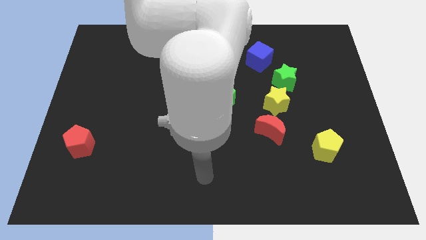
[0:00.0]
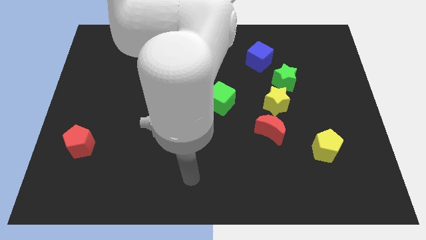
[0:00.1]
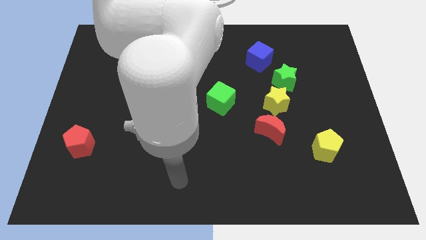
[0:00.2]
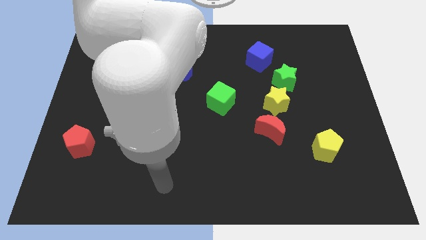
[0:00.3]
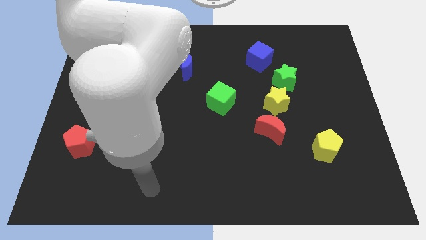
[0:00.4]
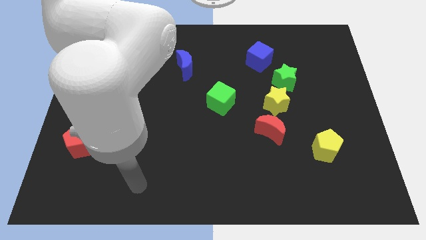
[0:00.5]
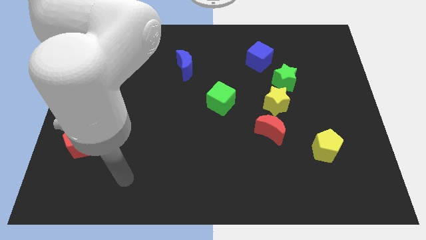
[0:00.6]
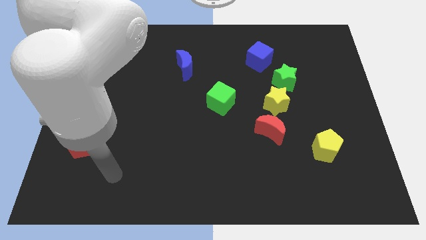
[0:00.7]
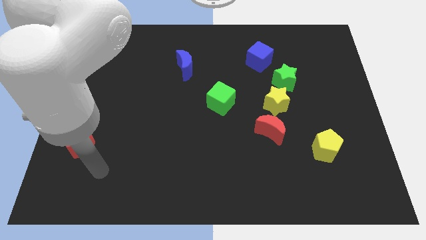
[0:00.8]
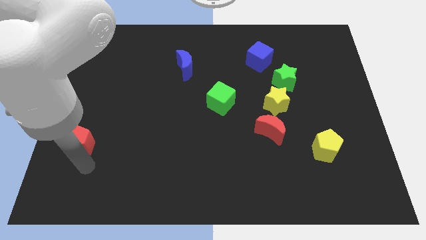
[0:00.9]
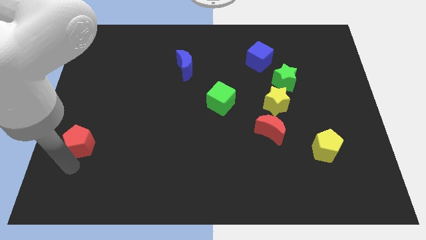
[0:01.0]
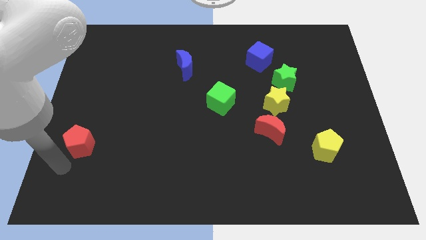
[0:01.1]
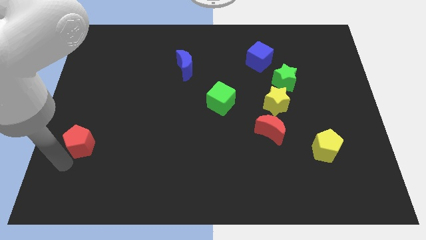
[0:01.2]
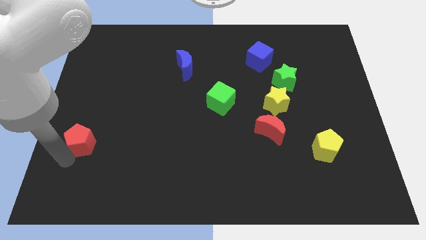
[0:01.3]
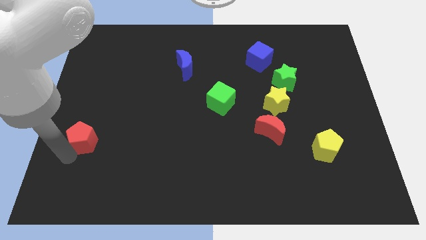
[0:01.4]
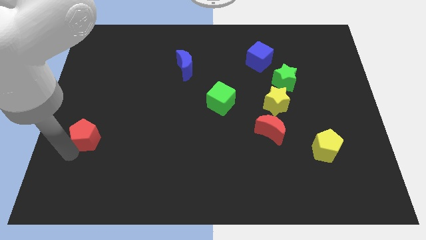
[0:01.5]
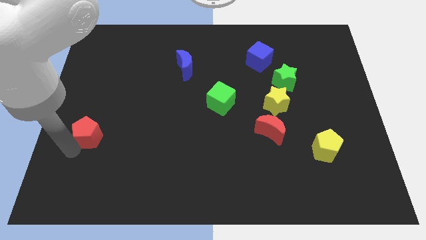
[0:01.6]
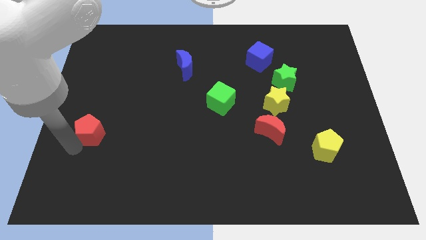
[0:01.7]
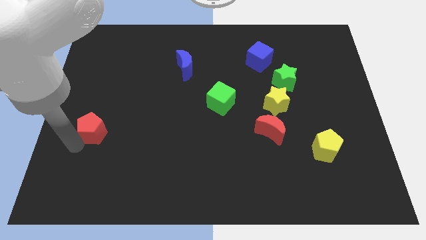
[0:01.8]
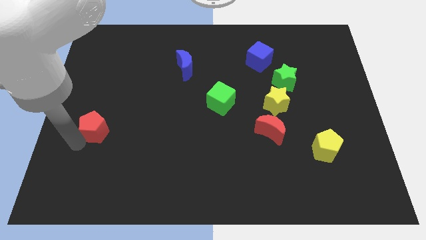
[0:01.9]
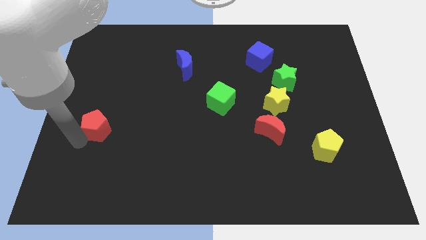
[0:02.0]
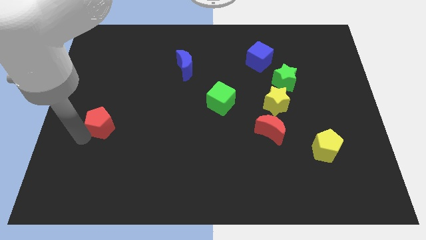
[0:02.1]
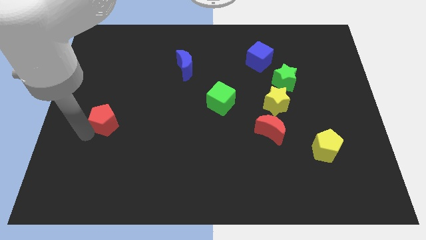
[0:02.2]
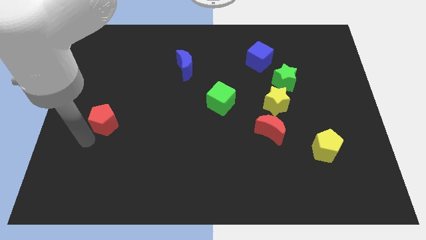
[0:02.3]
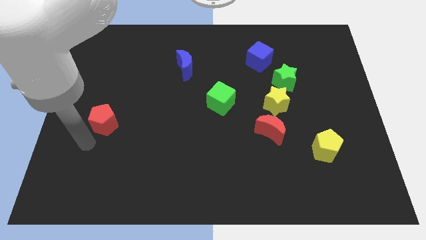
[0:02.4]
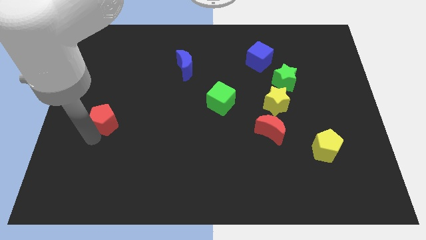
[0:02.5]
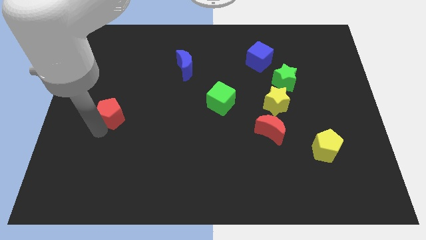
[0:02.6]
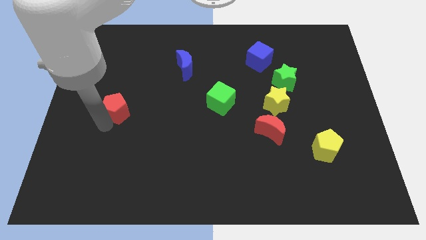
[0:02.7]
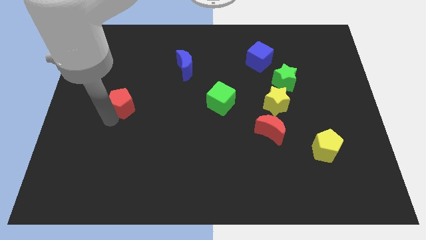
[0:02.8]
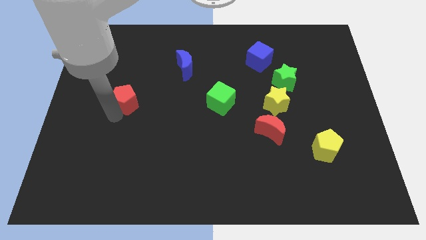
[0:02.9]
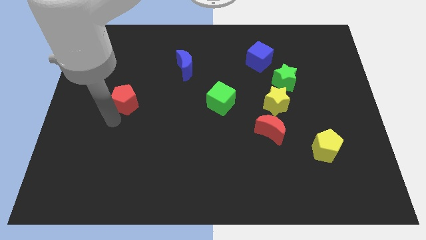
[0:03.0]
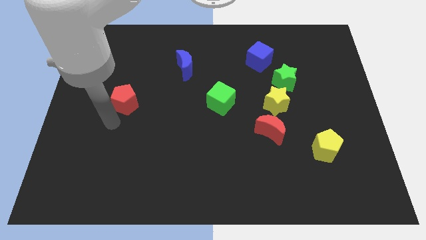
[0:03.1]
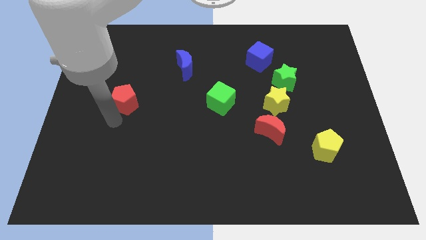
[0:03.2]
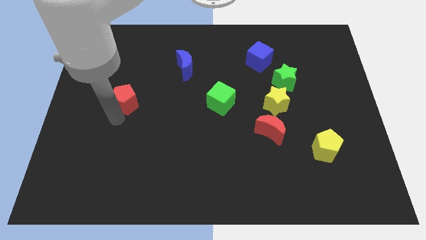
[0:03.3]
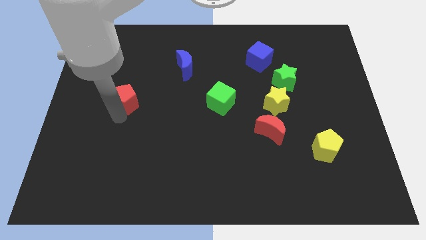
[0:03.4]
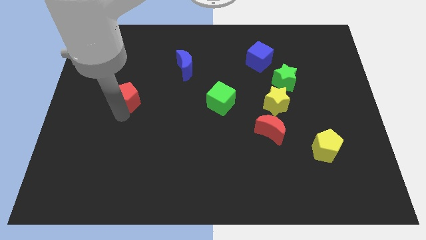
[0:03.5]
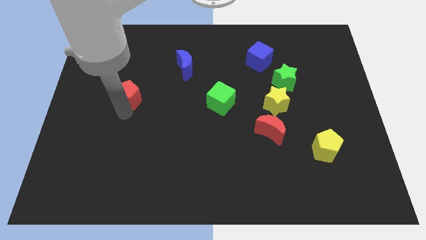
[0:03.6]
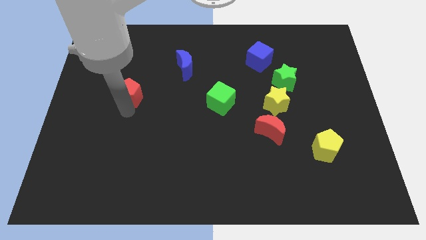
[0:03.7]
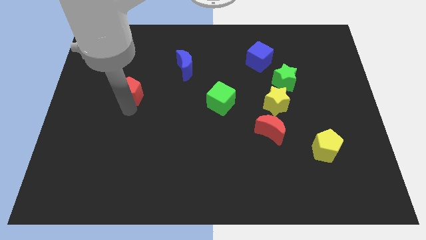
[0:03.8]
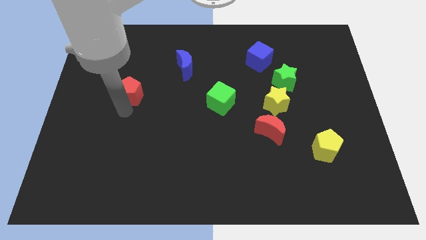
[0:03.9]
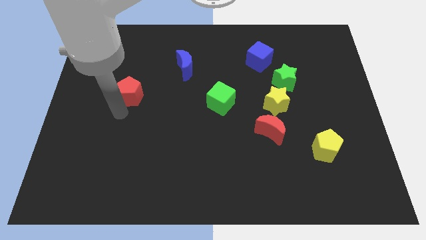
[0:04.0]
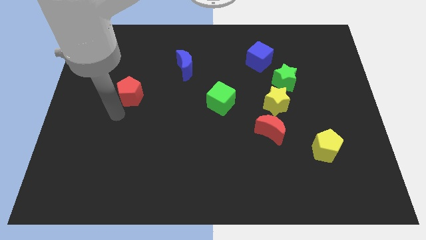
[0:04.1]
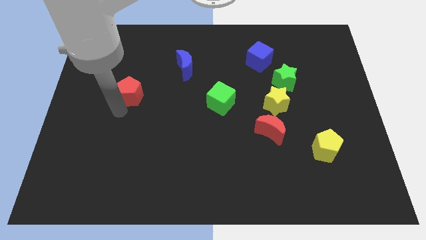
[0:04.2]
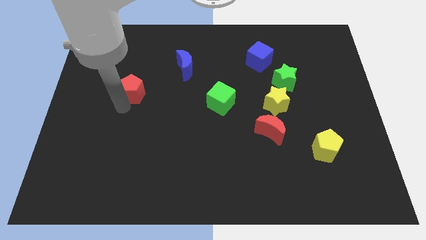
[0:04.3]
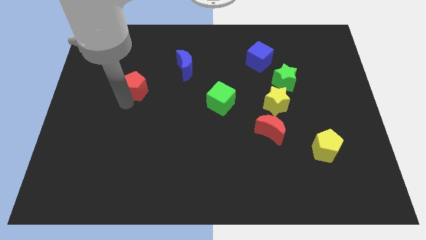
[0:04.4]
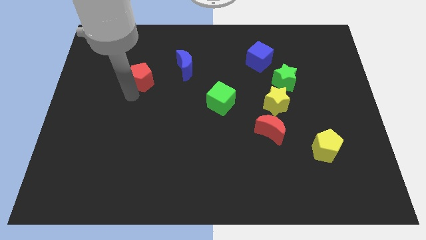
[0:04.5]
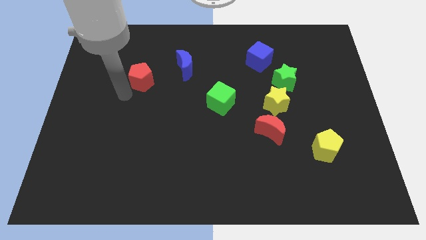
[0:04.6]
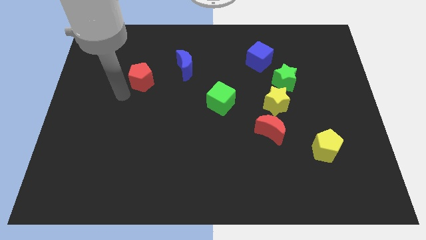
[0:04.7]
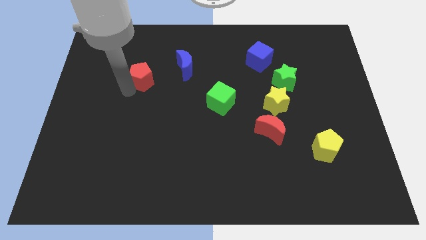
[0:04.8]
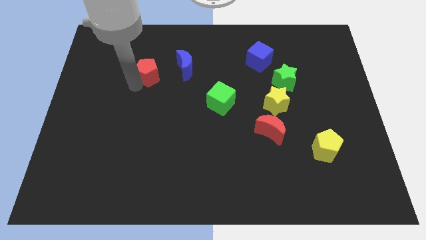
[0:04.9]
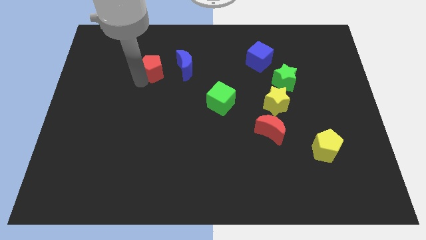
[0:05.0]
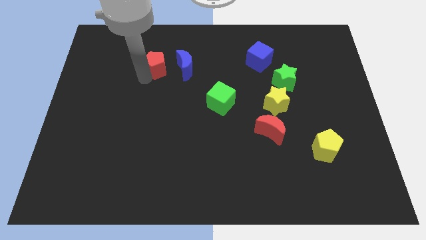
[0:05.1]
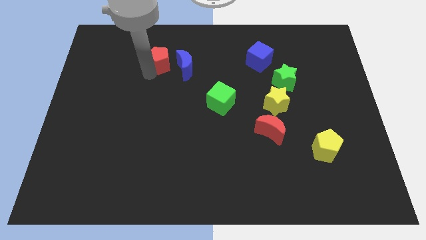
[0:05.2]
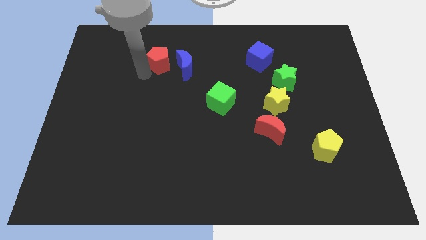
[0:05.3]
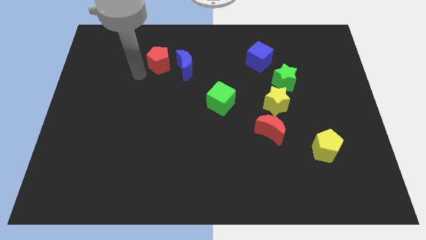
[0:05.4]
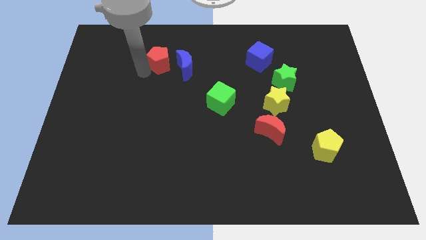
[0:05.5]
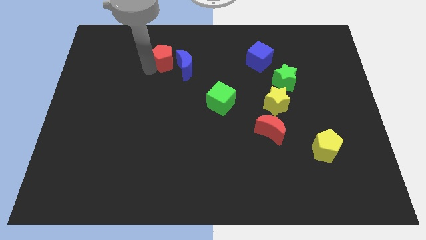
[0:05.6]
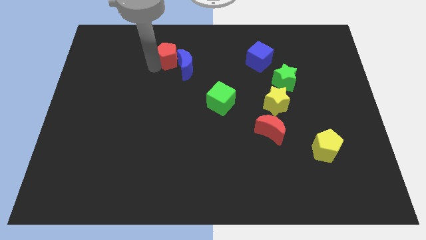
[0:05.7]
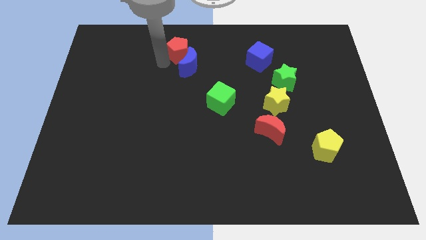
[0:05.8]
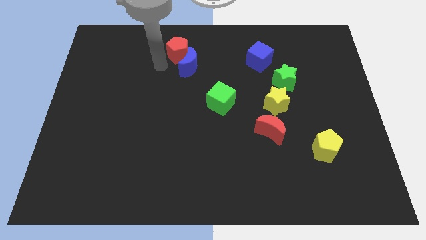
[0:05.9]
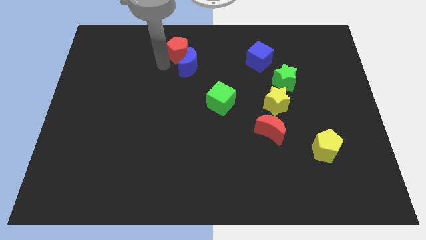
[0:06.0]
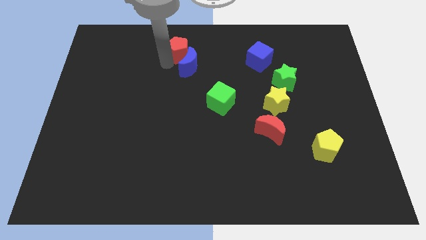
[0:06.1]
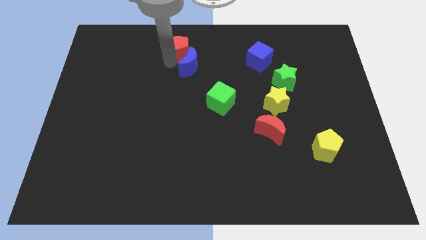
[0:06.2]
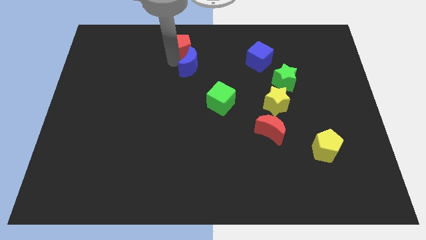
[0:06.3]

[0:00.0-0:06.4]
put the red pentagon to the top side
